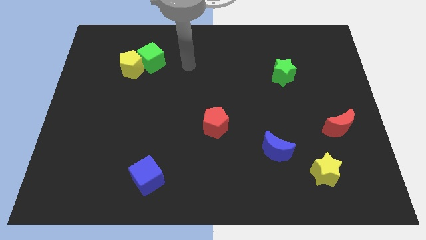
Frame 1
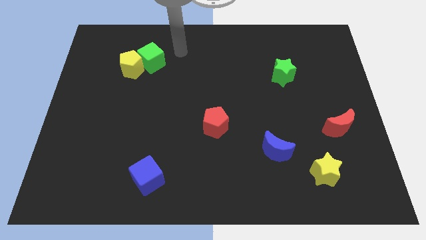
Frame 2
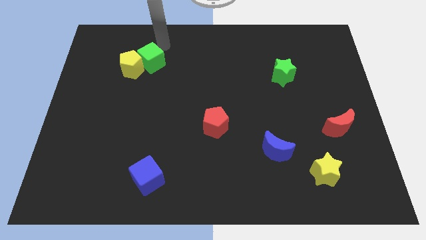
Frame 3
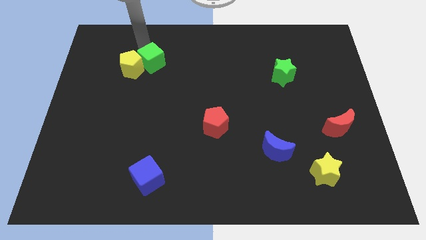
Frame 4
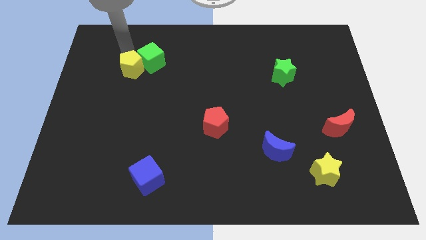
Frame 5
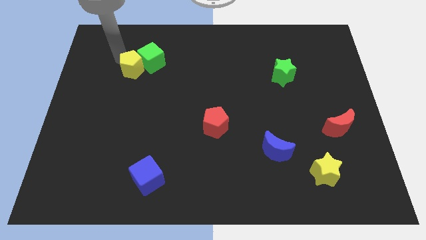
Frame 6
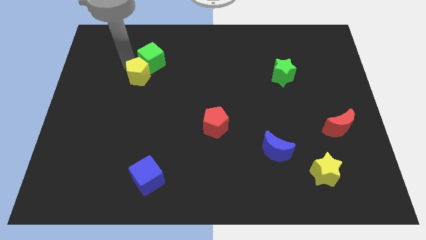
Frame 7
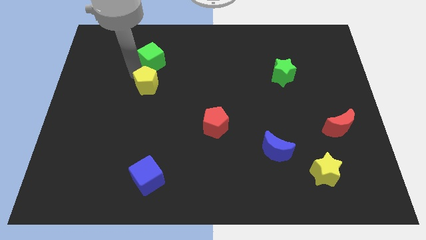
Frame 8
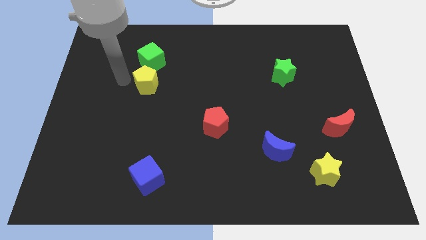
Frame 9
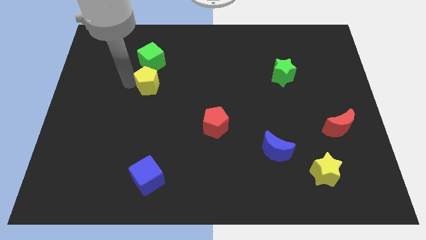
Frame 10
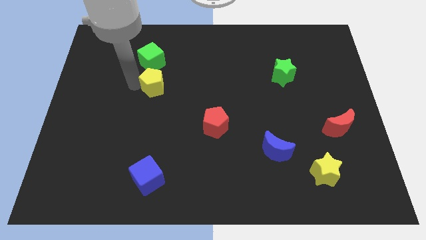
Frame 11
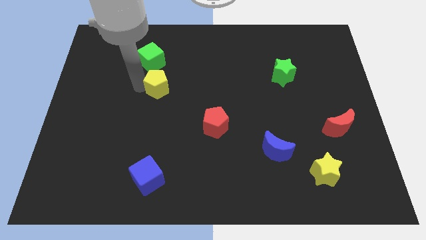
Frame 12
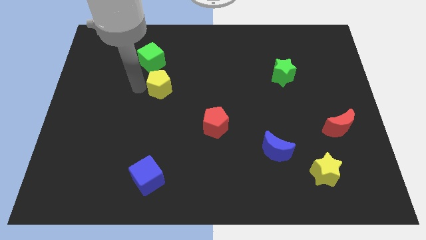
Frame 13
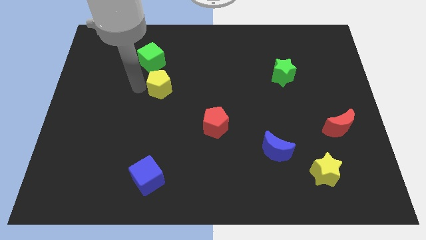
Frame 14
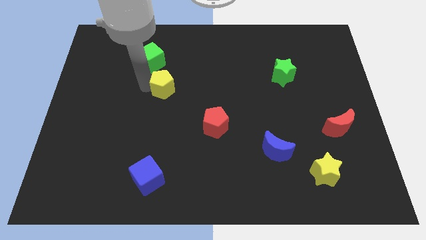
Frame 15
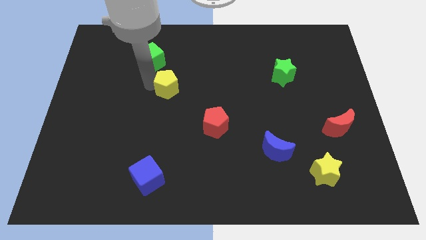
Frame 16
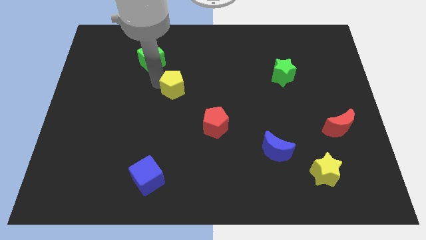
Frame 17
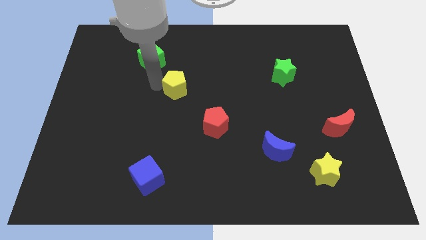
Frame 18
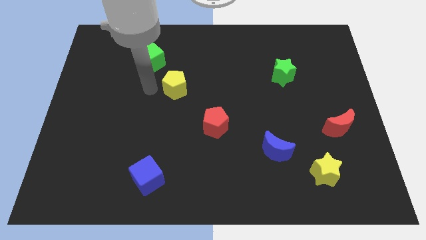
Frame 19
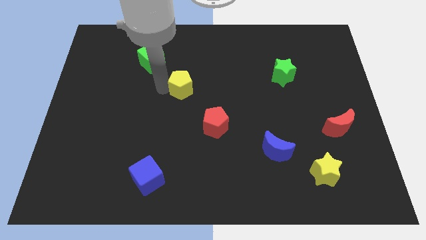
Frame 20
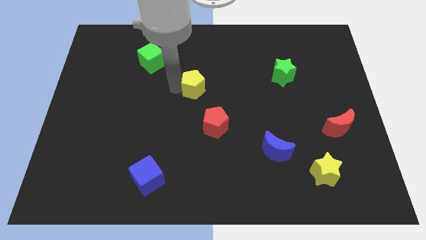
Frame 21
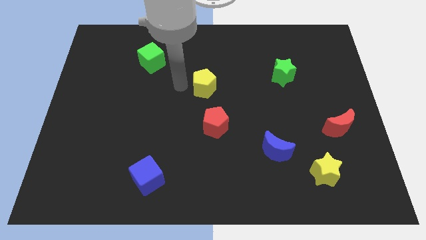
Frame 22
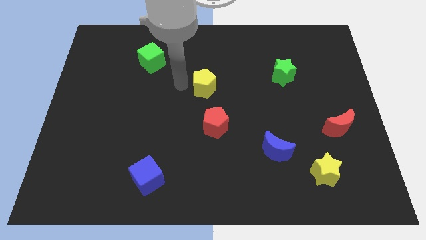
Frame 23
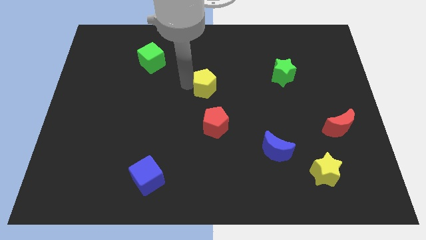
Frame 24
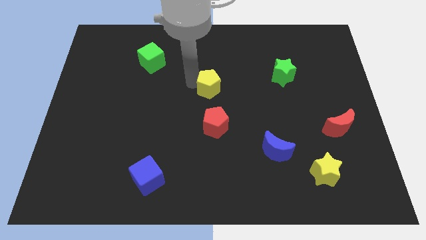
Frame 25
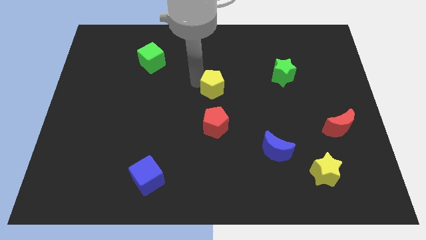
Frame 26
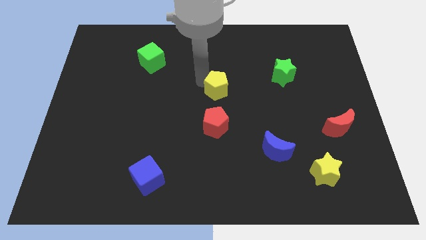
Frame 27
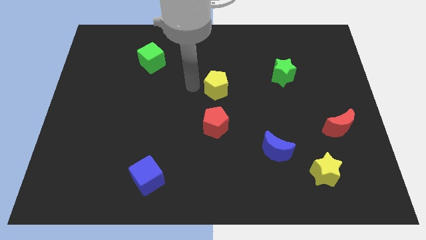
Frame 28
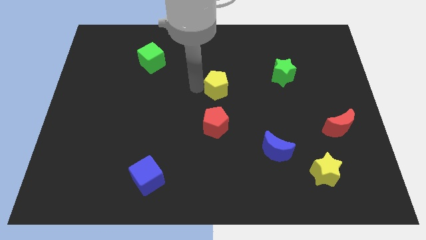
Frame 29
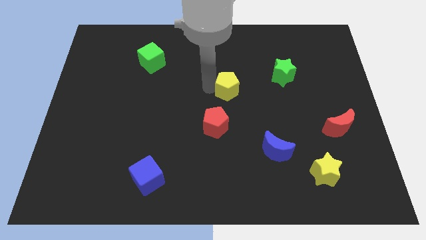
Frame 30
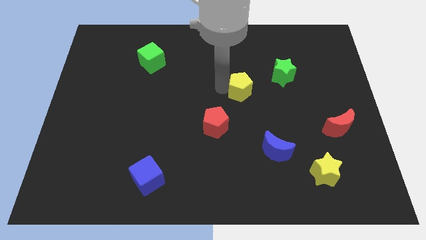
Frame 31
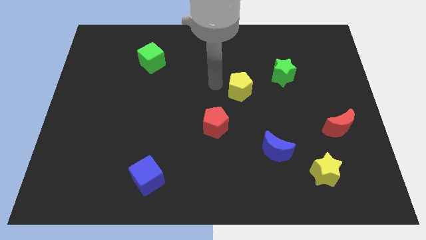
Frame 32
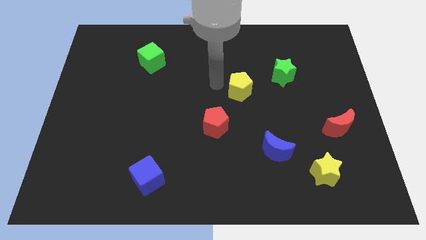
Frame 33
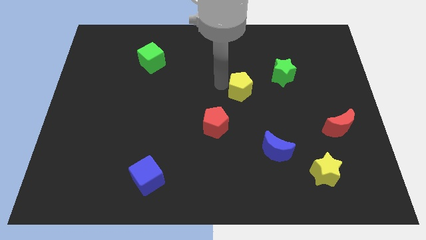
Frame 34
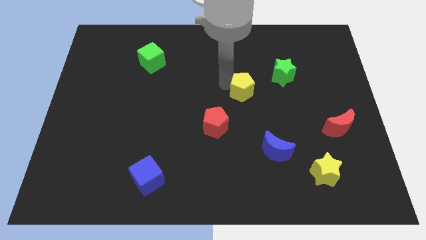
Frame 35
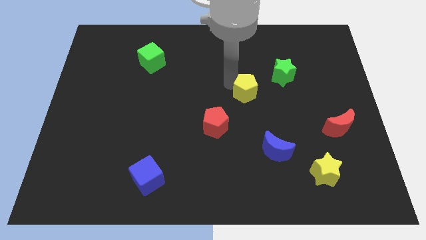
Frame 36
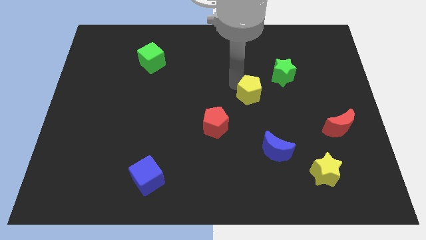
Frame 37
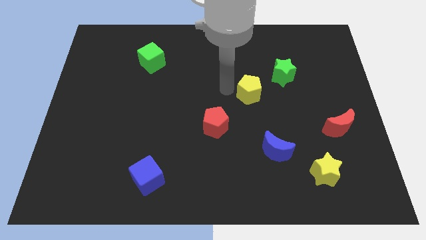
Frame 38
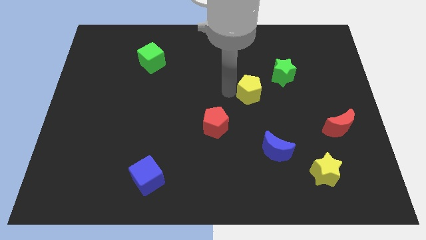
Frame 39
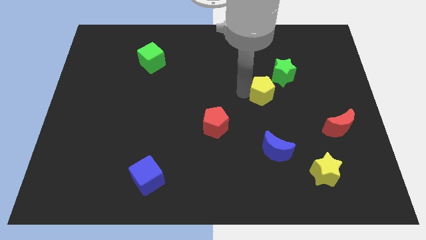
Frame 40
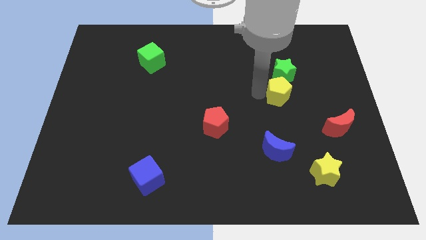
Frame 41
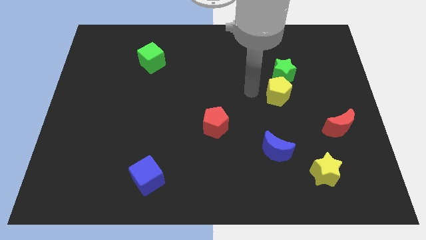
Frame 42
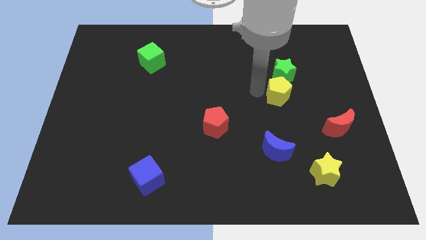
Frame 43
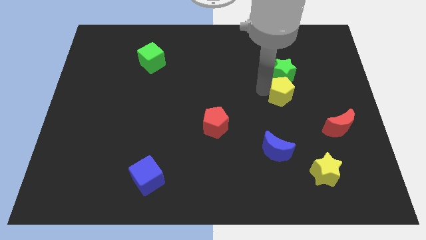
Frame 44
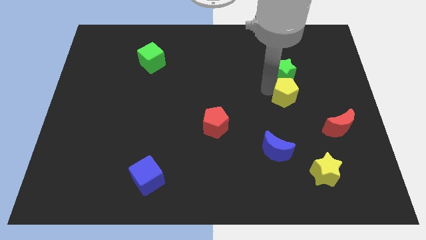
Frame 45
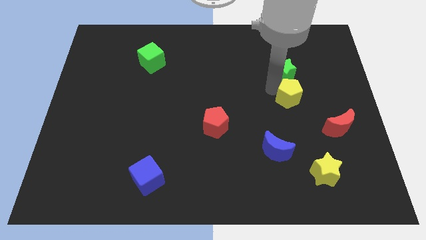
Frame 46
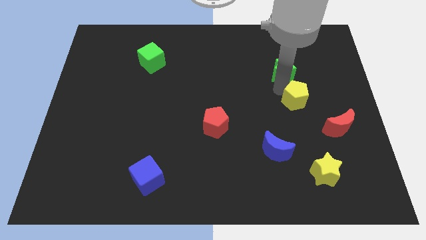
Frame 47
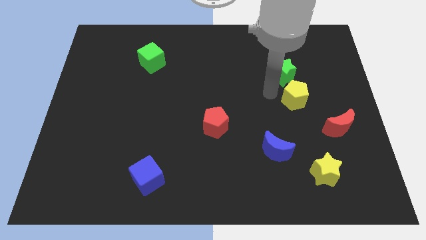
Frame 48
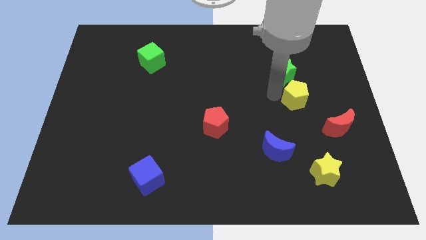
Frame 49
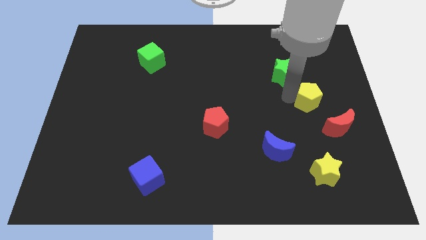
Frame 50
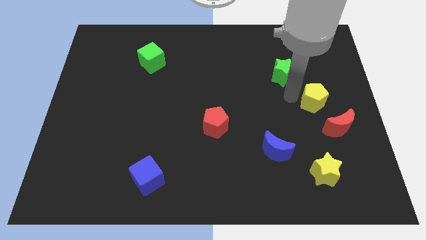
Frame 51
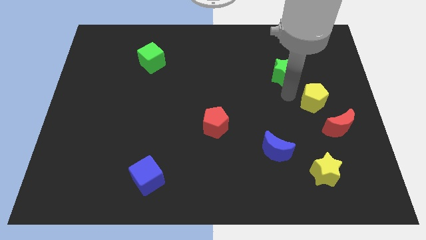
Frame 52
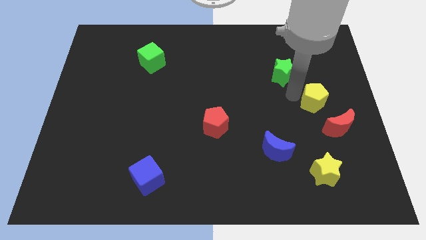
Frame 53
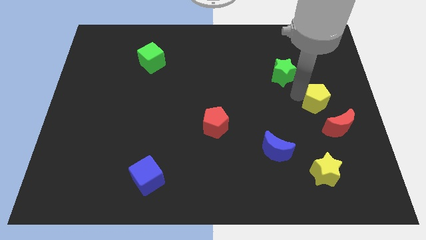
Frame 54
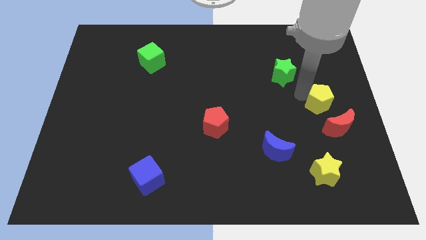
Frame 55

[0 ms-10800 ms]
move the yellow pentagon to the right side

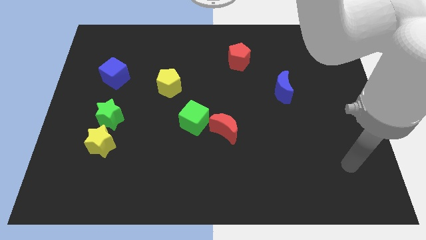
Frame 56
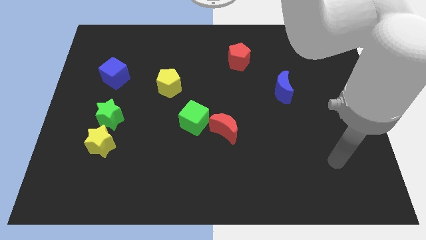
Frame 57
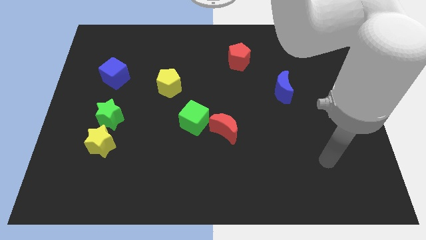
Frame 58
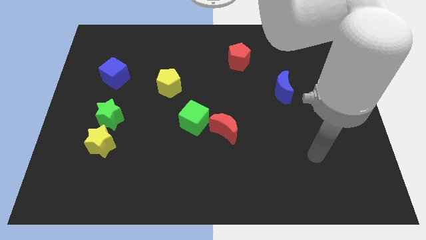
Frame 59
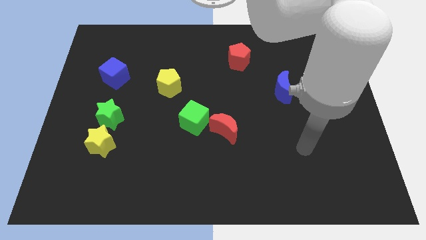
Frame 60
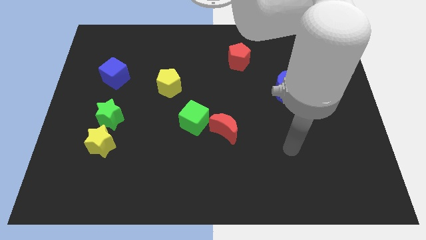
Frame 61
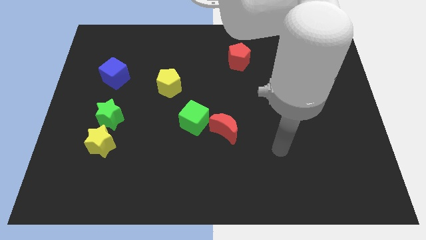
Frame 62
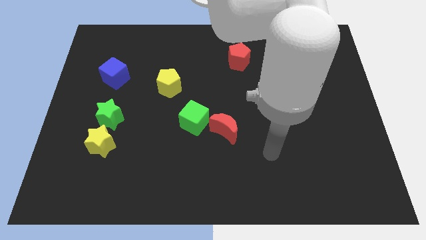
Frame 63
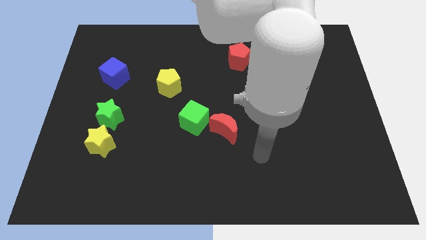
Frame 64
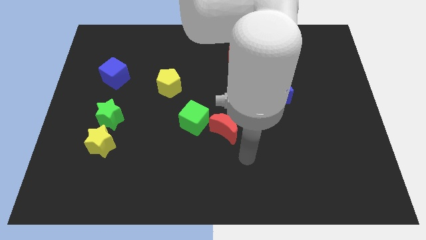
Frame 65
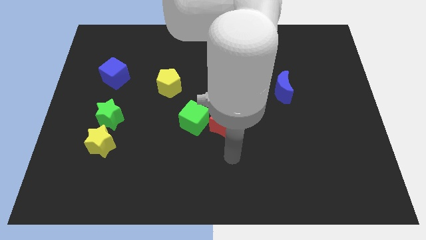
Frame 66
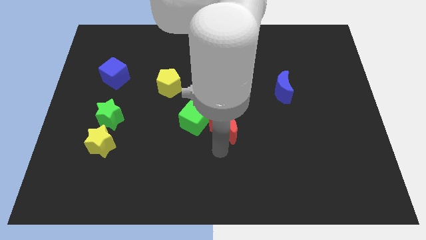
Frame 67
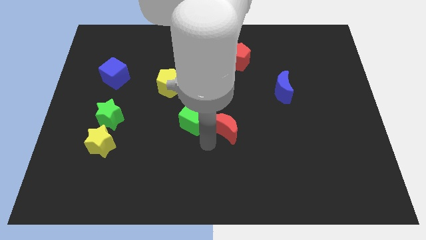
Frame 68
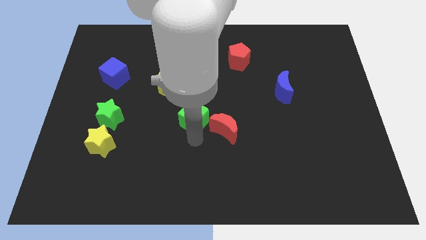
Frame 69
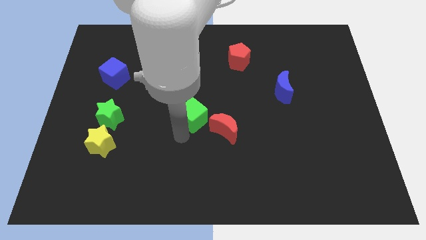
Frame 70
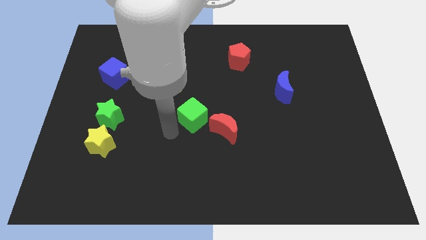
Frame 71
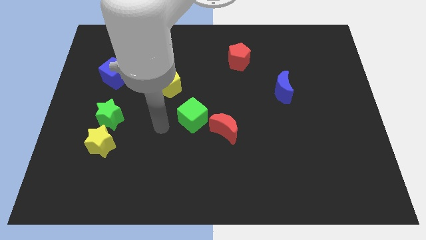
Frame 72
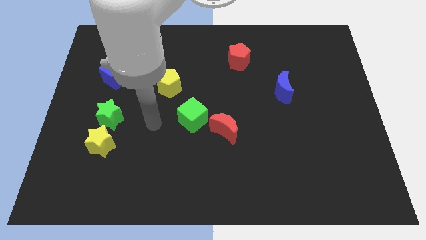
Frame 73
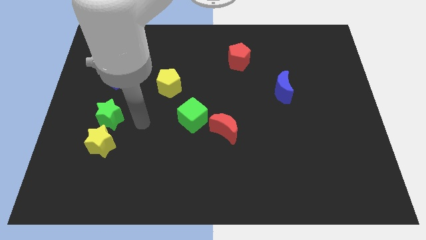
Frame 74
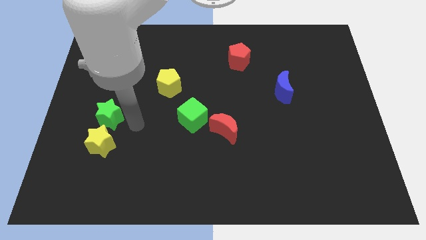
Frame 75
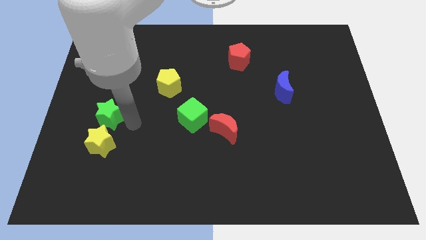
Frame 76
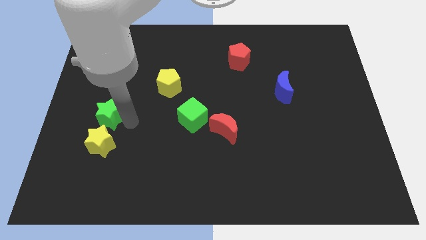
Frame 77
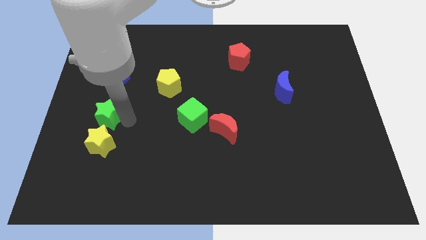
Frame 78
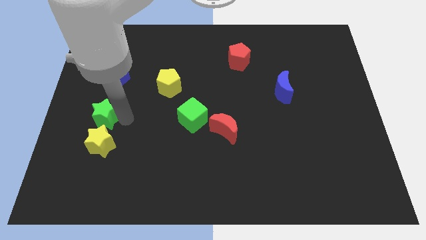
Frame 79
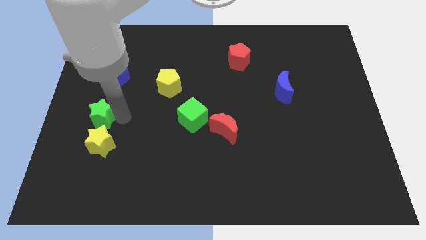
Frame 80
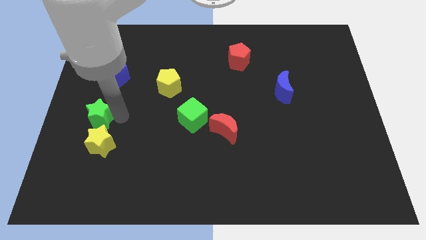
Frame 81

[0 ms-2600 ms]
move the green star to the left side
